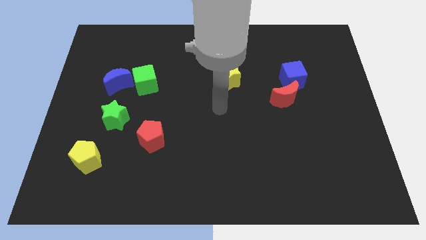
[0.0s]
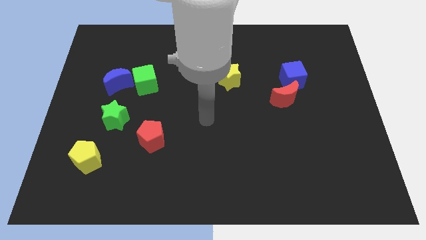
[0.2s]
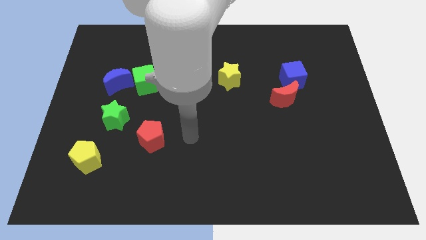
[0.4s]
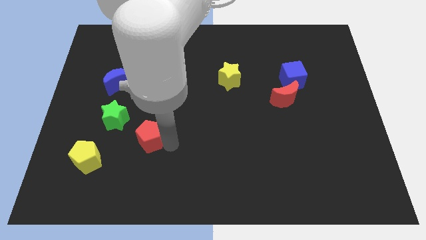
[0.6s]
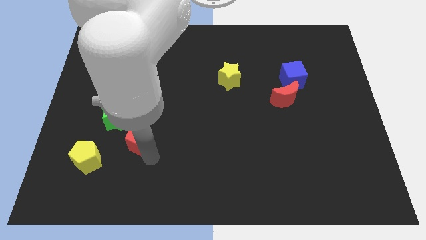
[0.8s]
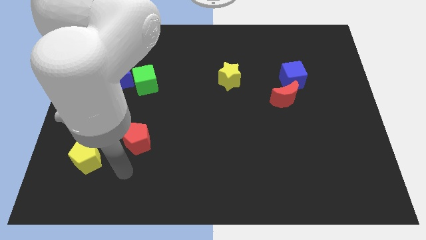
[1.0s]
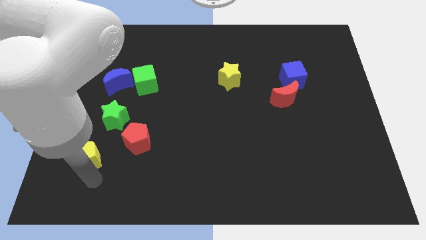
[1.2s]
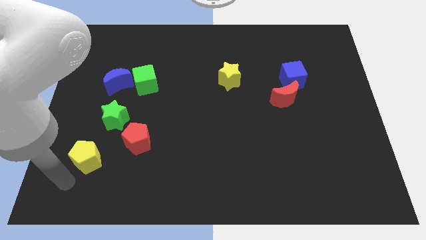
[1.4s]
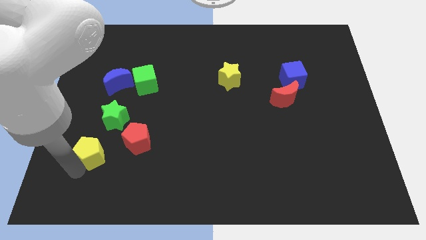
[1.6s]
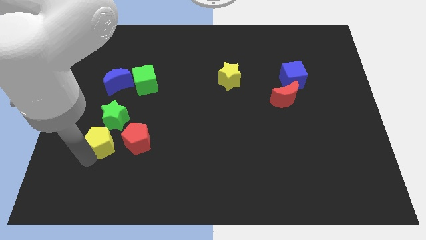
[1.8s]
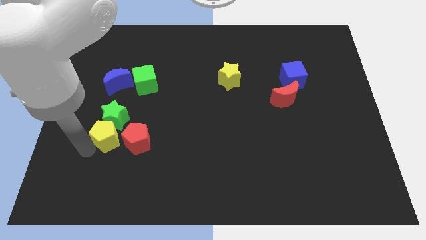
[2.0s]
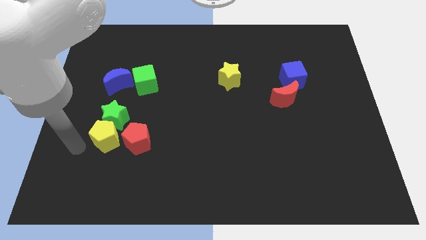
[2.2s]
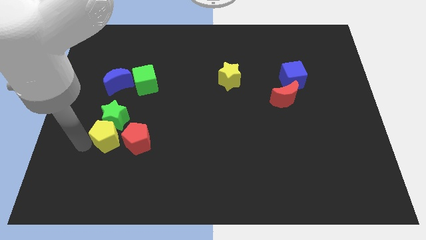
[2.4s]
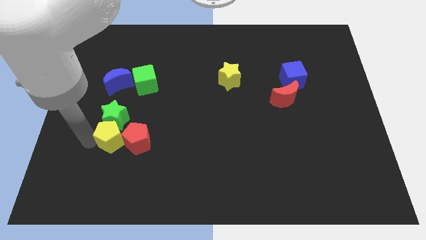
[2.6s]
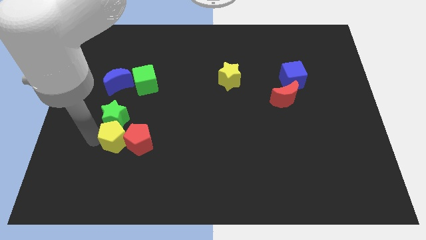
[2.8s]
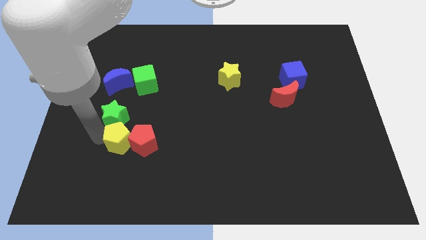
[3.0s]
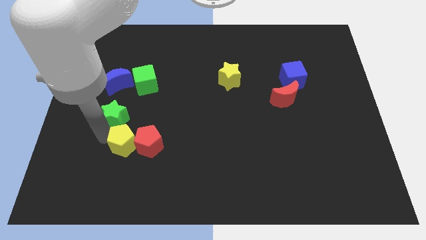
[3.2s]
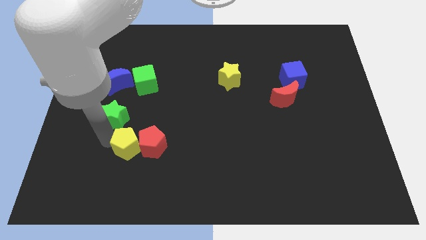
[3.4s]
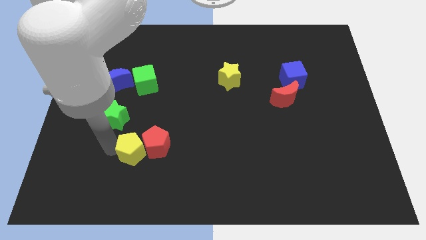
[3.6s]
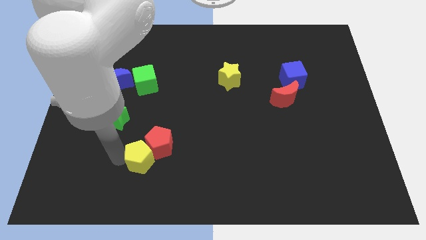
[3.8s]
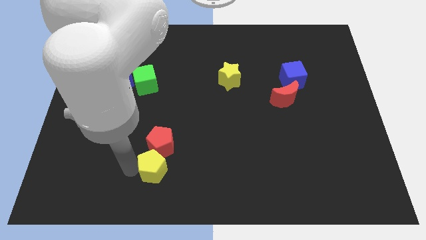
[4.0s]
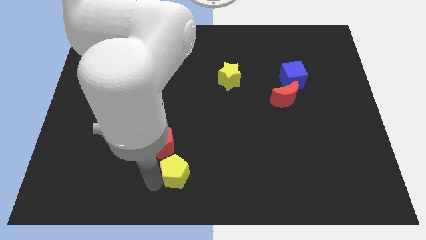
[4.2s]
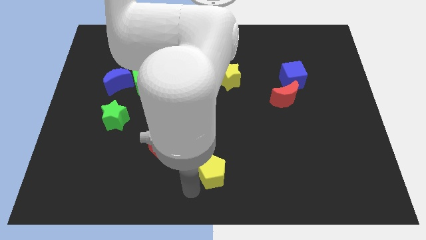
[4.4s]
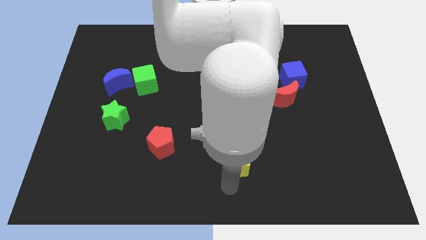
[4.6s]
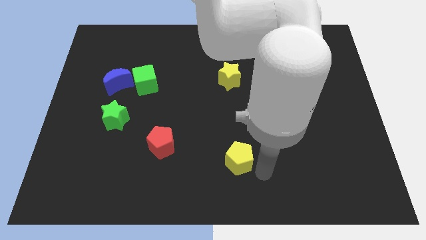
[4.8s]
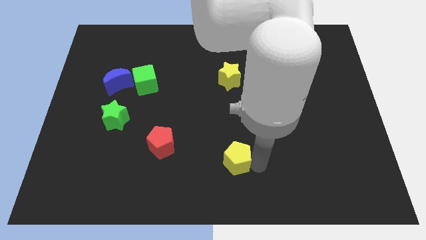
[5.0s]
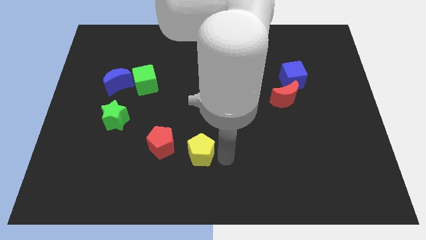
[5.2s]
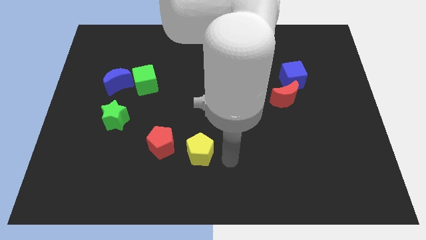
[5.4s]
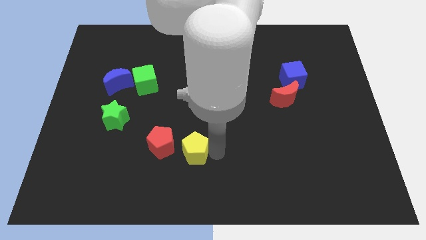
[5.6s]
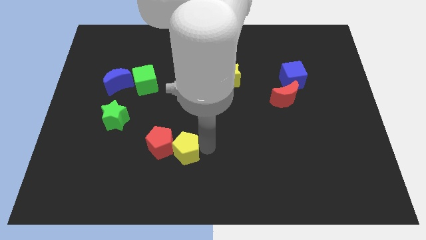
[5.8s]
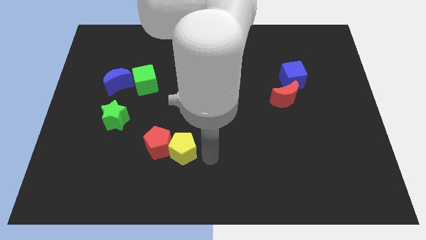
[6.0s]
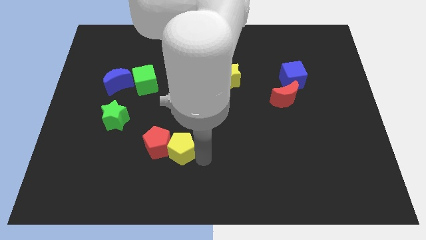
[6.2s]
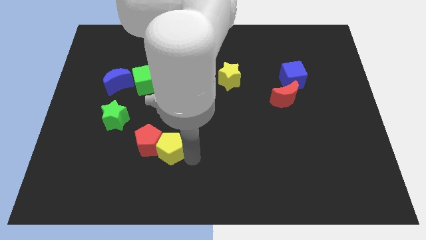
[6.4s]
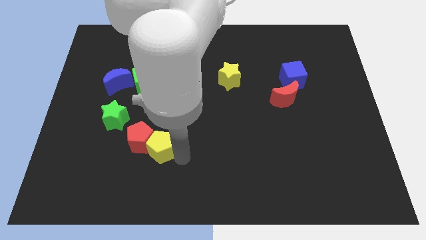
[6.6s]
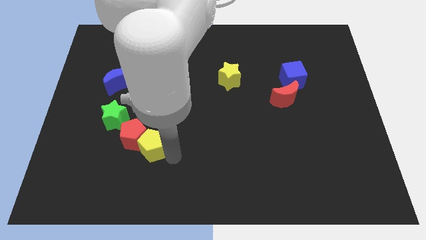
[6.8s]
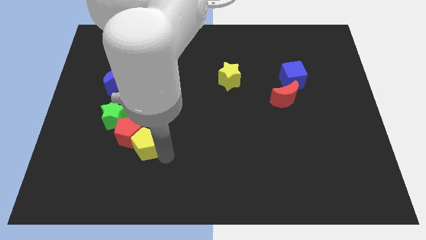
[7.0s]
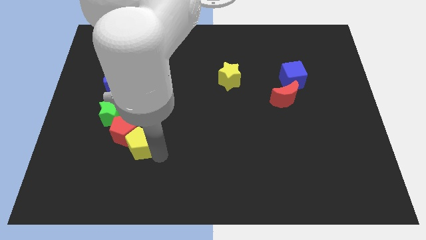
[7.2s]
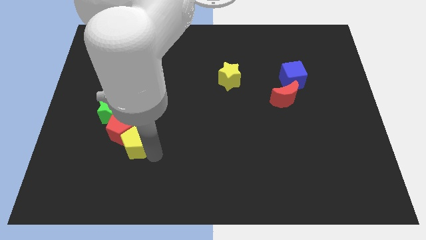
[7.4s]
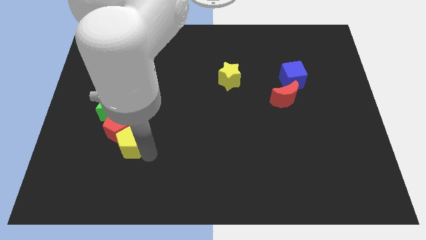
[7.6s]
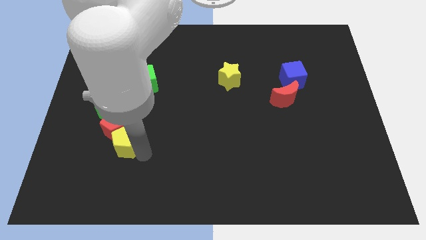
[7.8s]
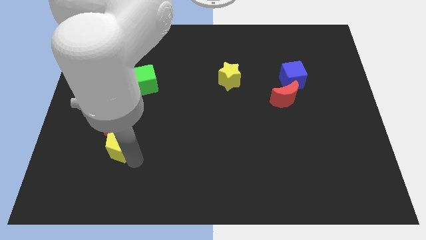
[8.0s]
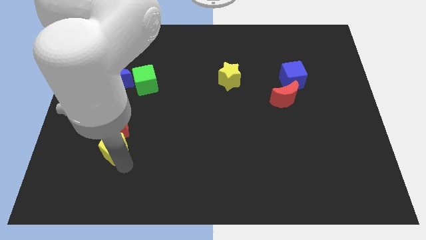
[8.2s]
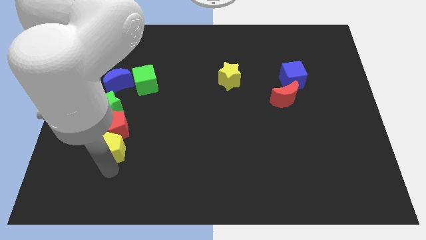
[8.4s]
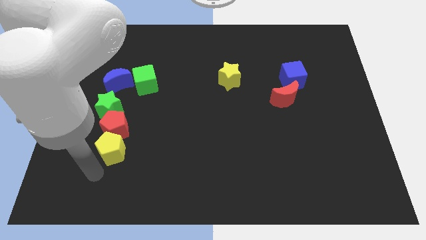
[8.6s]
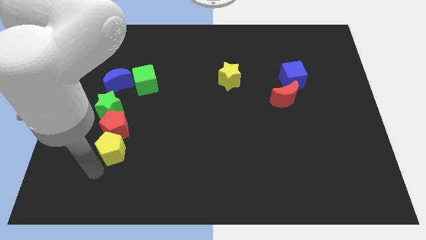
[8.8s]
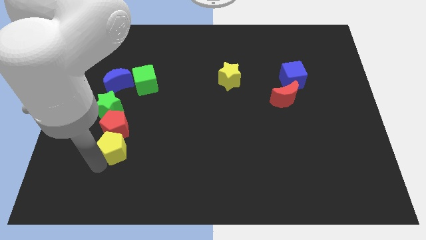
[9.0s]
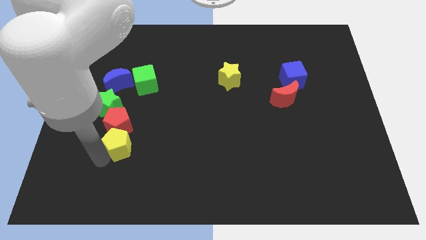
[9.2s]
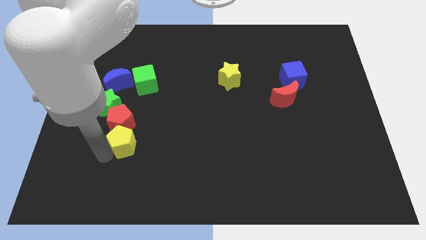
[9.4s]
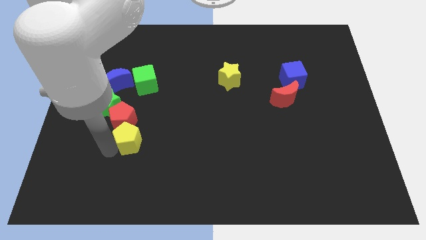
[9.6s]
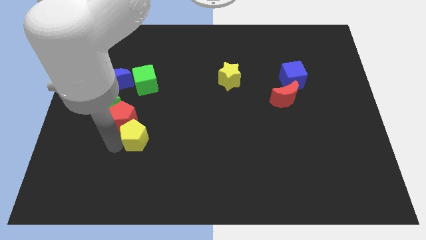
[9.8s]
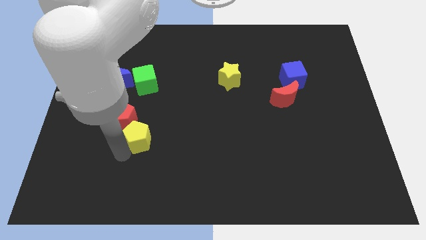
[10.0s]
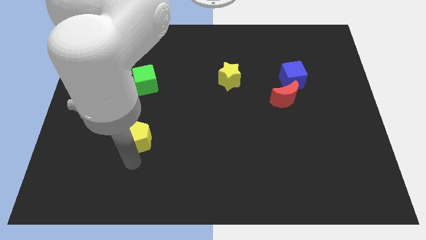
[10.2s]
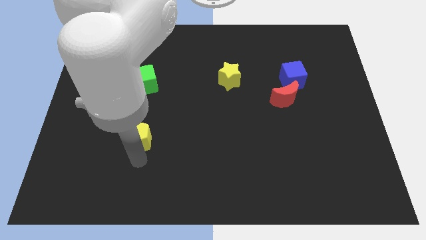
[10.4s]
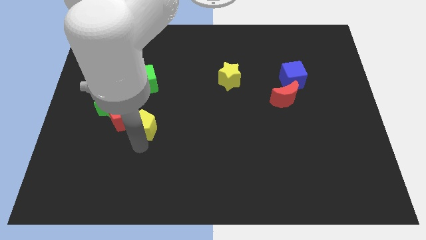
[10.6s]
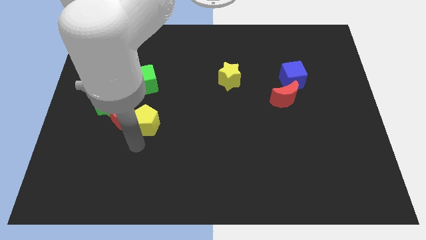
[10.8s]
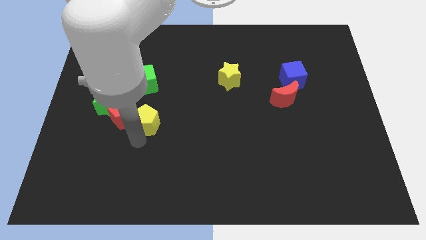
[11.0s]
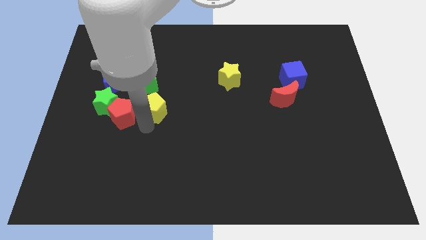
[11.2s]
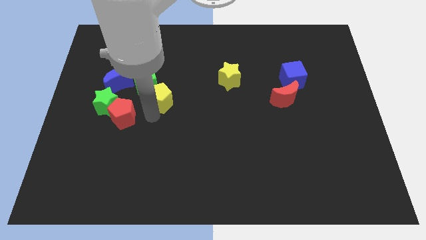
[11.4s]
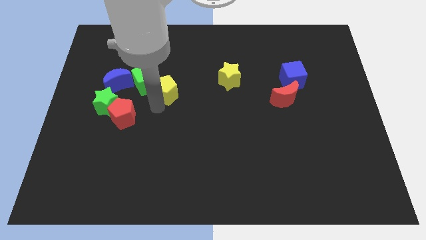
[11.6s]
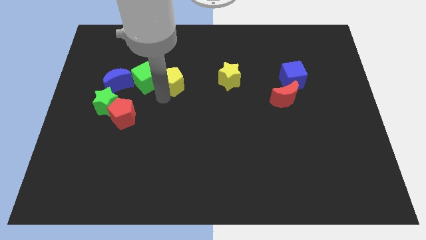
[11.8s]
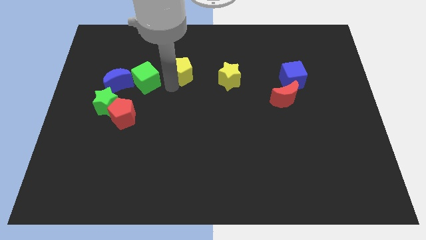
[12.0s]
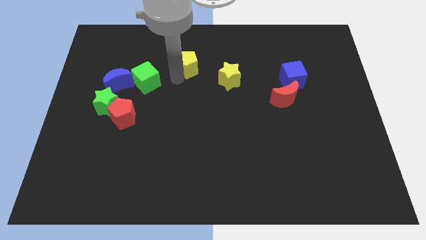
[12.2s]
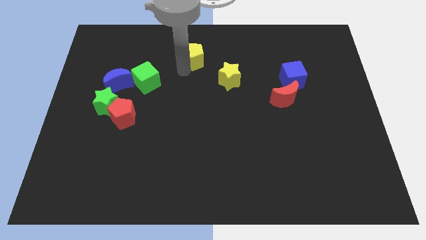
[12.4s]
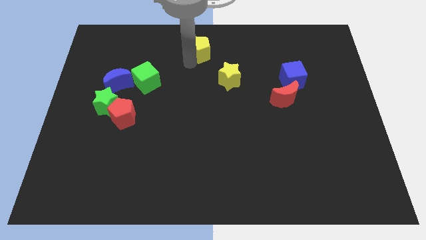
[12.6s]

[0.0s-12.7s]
put the yellow pentagon to the top side

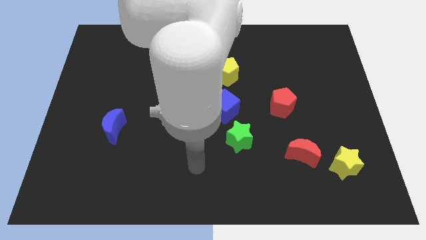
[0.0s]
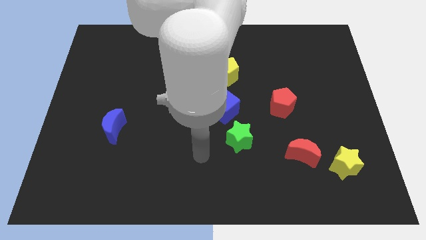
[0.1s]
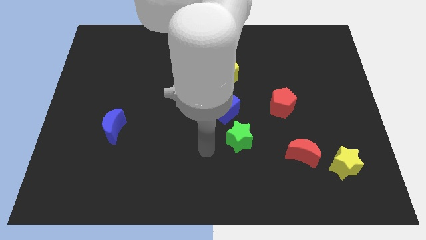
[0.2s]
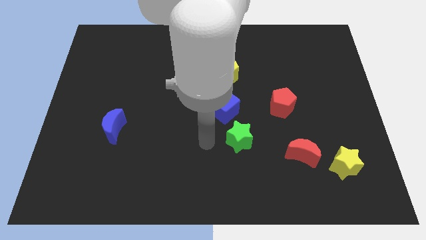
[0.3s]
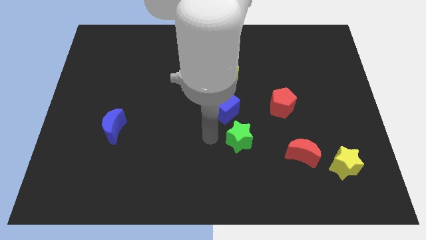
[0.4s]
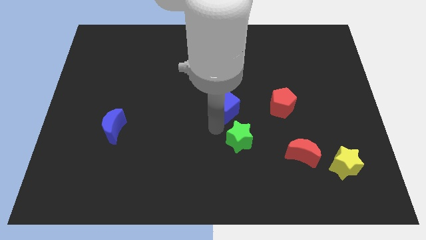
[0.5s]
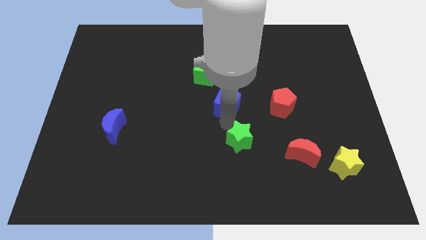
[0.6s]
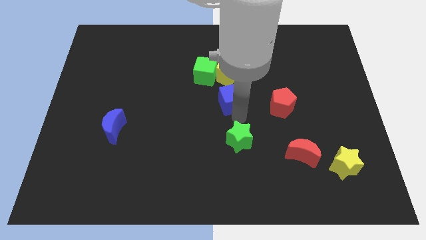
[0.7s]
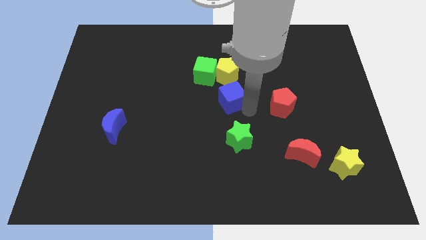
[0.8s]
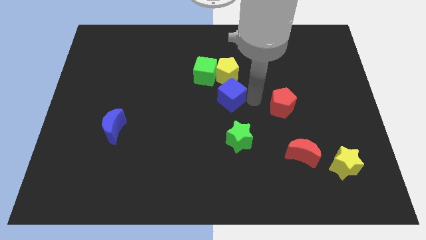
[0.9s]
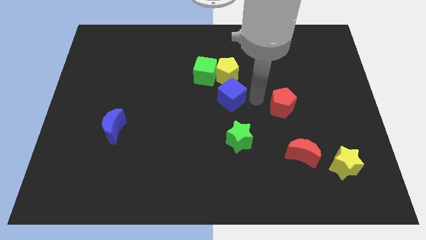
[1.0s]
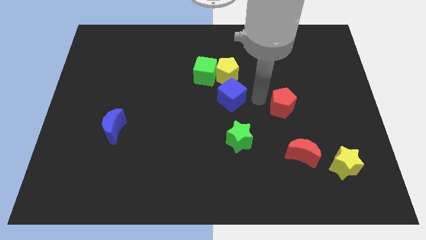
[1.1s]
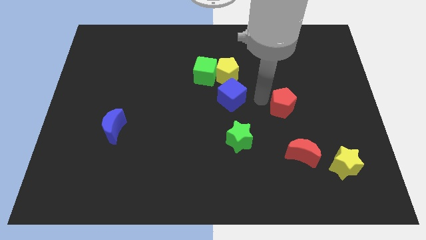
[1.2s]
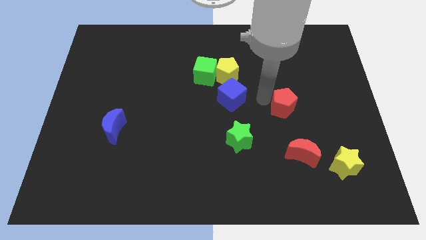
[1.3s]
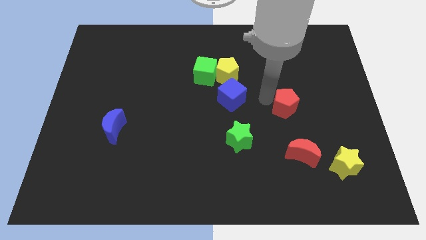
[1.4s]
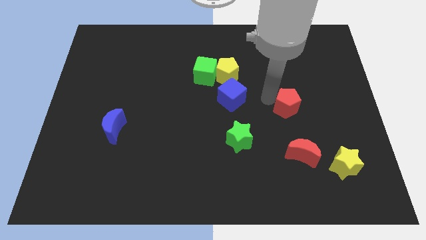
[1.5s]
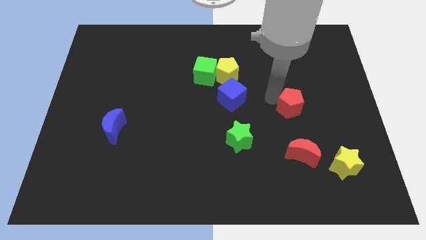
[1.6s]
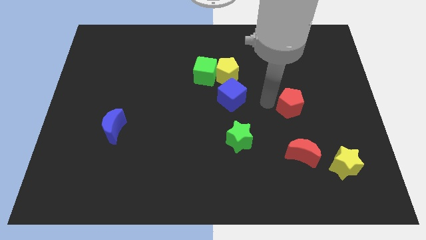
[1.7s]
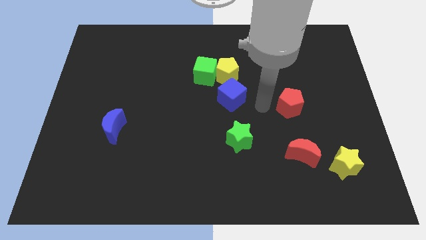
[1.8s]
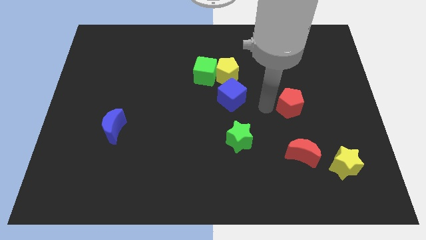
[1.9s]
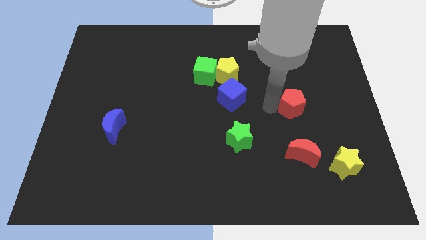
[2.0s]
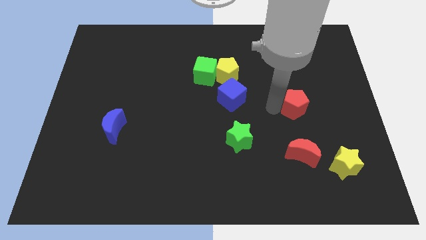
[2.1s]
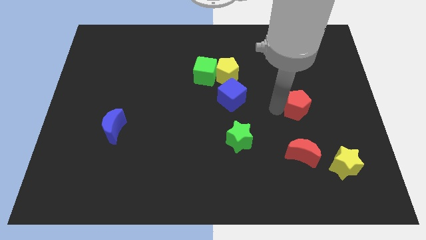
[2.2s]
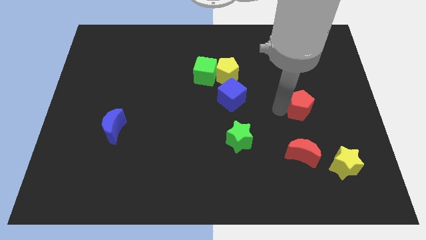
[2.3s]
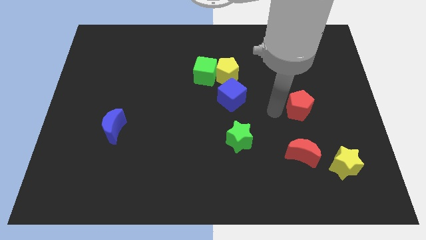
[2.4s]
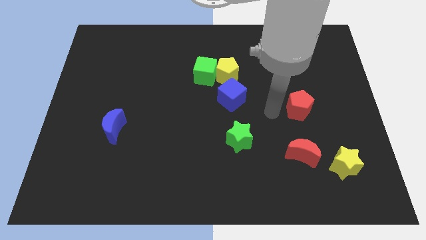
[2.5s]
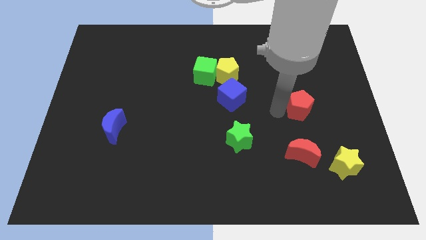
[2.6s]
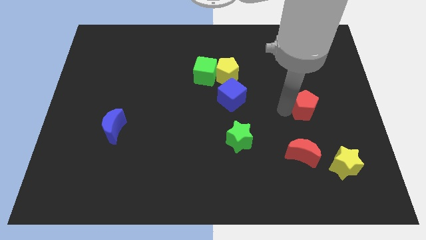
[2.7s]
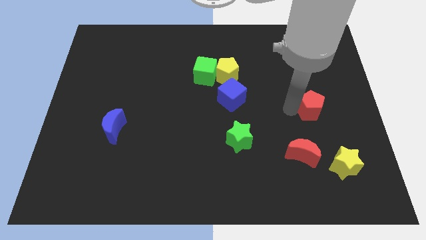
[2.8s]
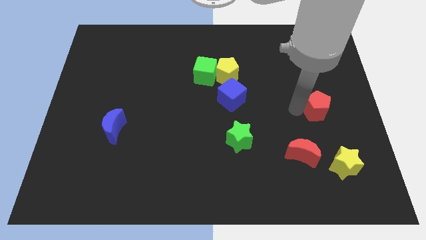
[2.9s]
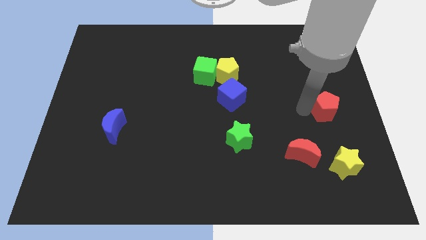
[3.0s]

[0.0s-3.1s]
slide the red pentagon to the right side
